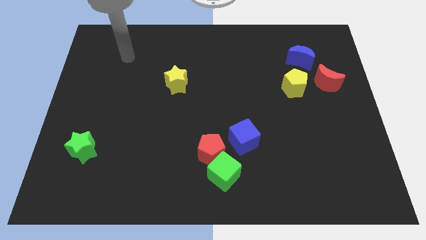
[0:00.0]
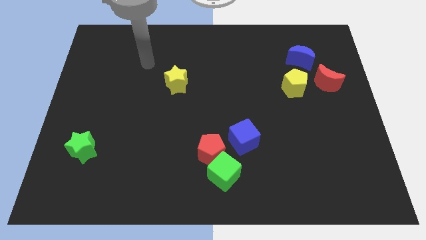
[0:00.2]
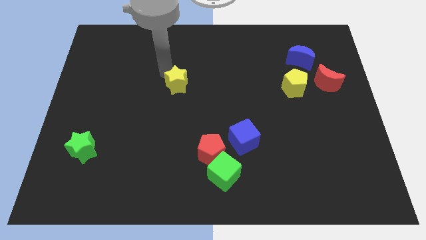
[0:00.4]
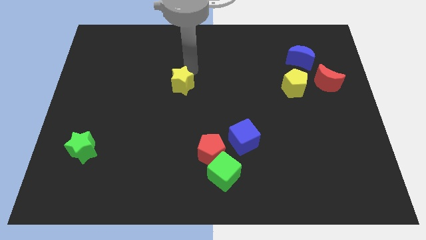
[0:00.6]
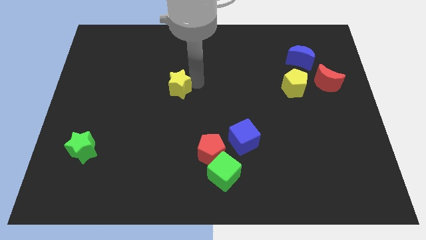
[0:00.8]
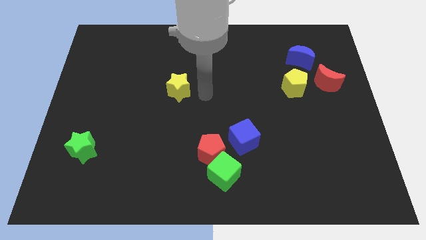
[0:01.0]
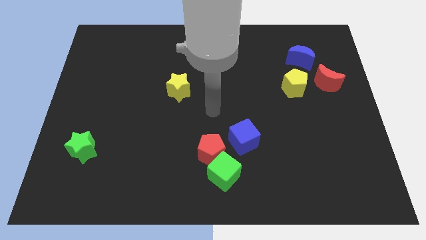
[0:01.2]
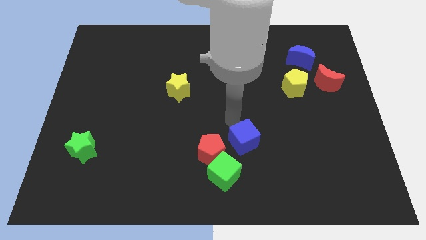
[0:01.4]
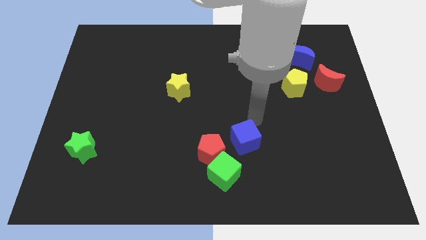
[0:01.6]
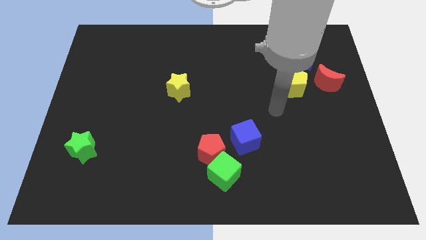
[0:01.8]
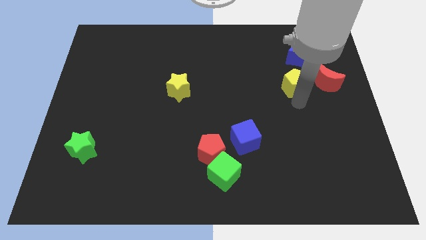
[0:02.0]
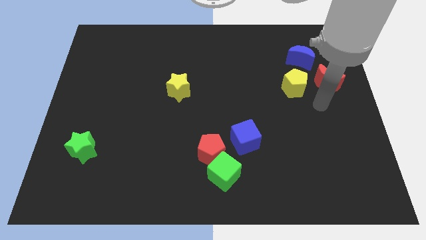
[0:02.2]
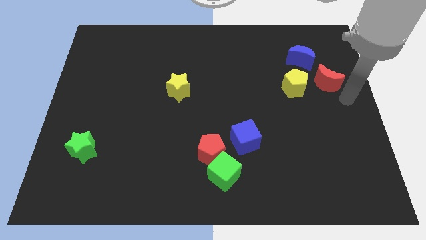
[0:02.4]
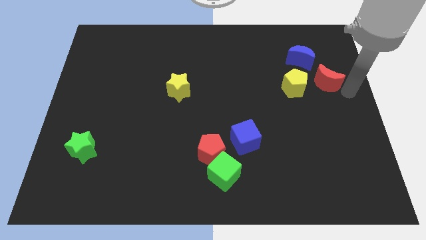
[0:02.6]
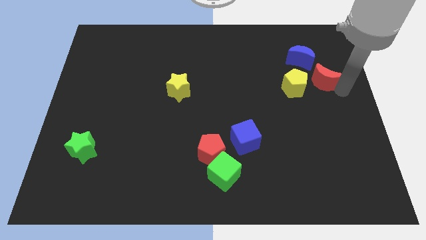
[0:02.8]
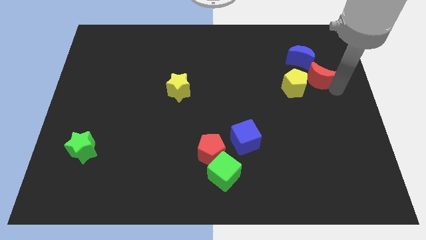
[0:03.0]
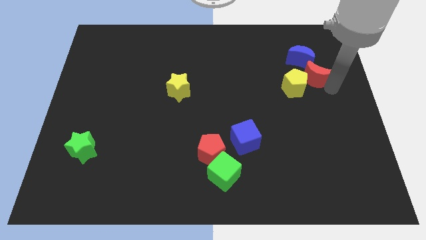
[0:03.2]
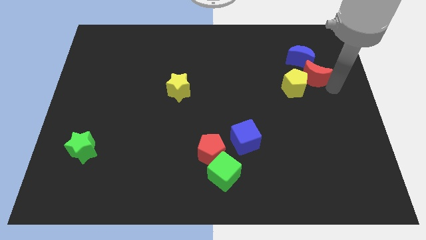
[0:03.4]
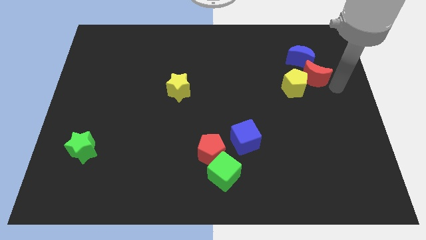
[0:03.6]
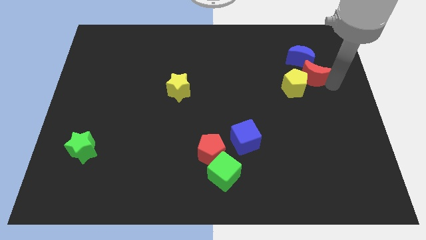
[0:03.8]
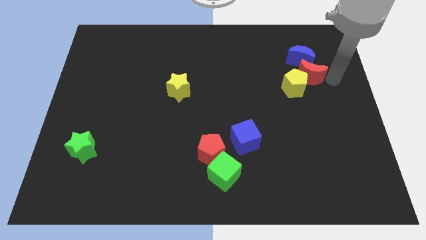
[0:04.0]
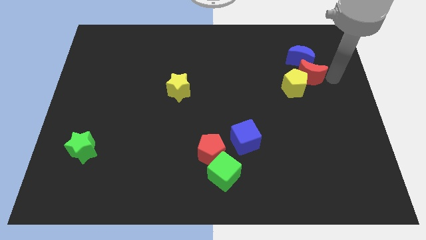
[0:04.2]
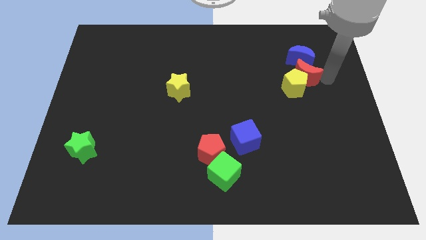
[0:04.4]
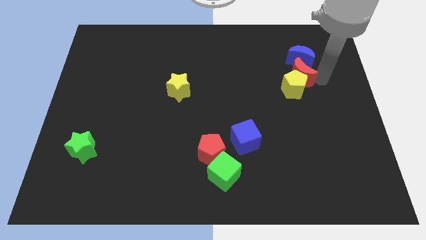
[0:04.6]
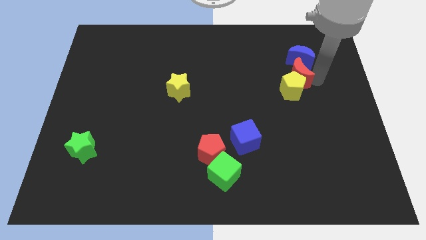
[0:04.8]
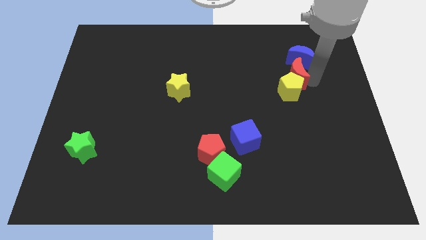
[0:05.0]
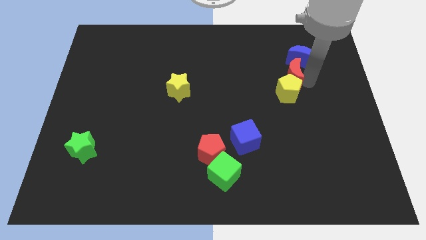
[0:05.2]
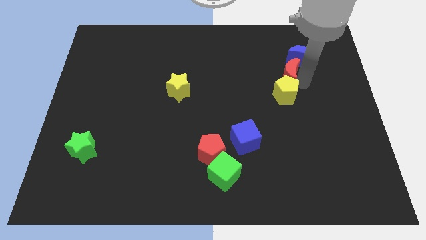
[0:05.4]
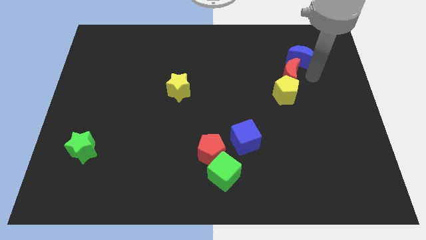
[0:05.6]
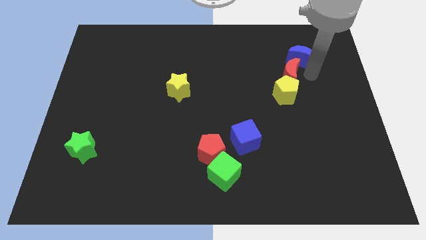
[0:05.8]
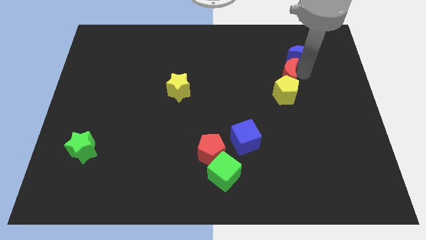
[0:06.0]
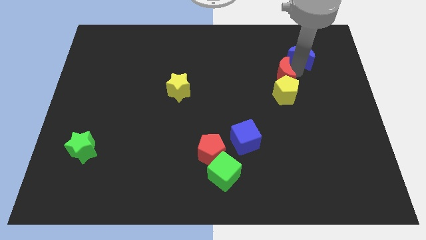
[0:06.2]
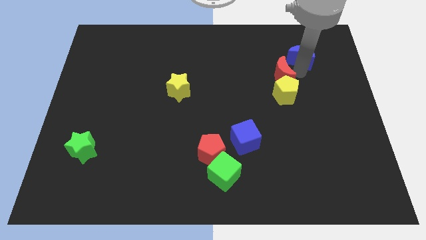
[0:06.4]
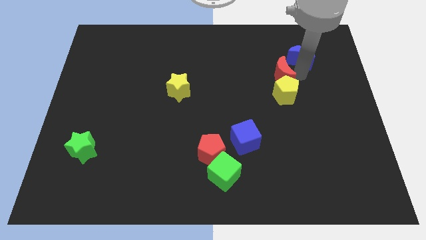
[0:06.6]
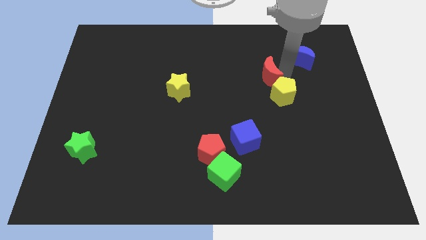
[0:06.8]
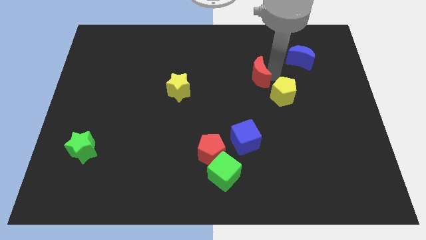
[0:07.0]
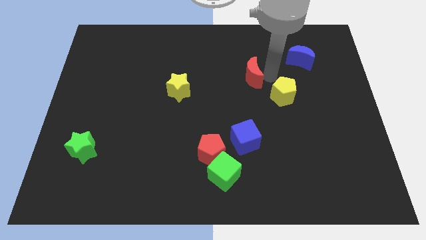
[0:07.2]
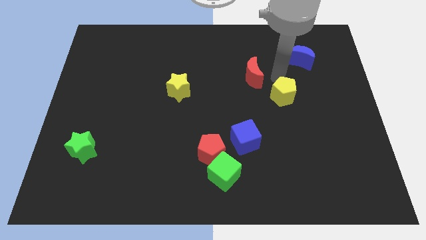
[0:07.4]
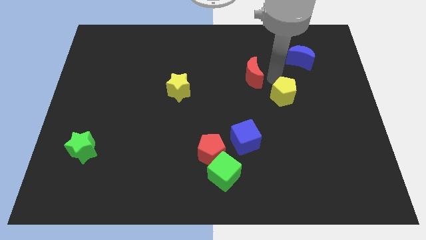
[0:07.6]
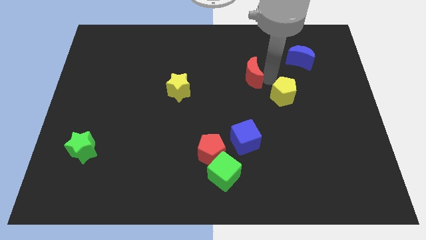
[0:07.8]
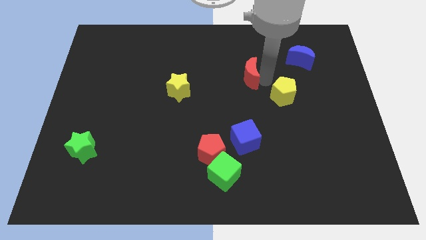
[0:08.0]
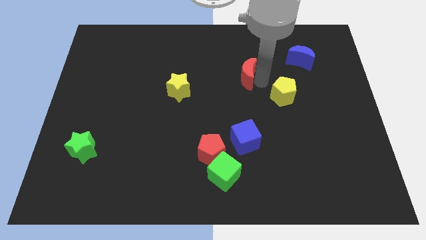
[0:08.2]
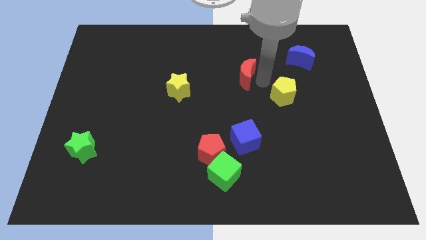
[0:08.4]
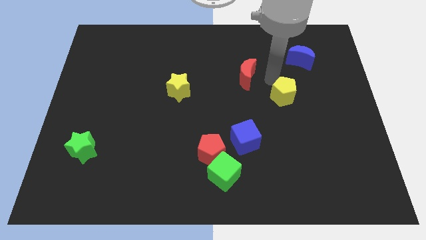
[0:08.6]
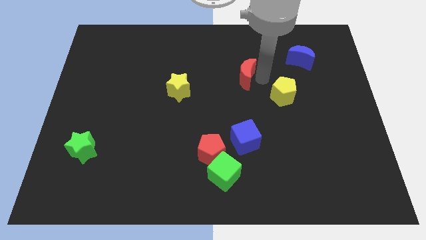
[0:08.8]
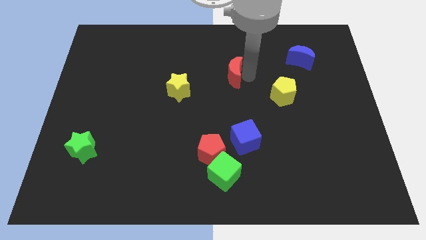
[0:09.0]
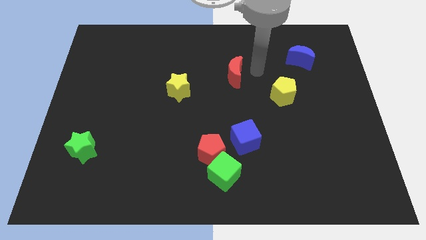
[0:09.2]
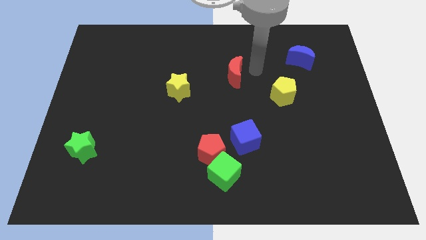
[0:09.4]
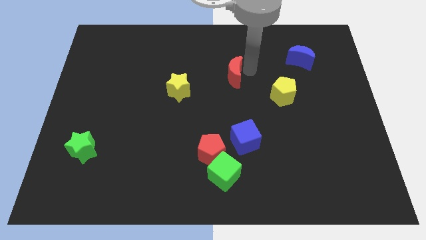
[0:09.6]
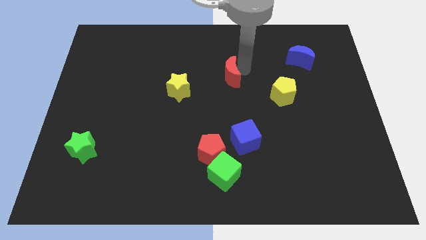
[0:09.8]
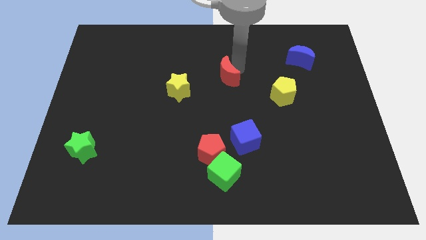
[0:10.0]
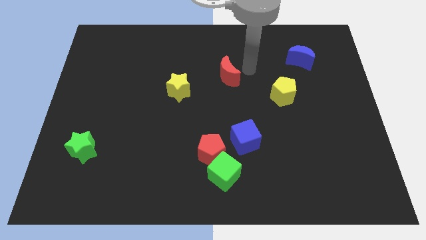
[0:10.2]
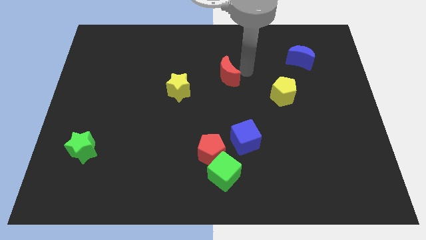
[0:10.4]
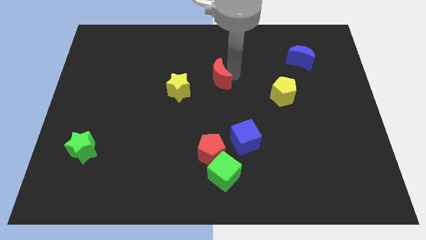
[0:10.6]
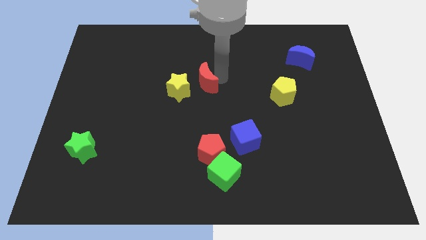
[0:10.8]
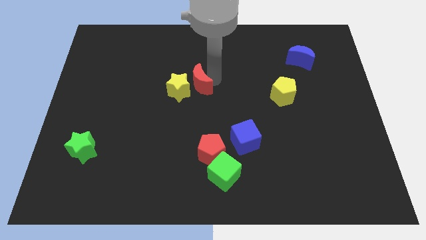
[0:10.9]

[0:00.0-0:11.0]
push the red moon close to the yellow star

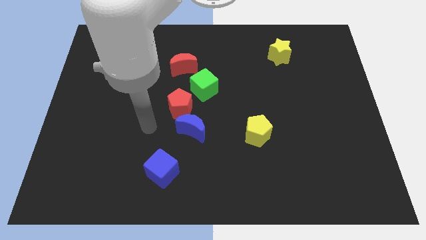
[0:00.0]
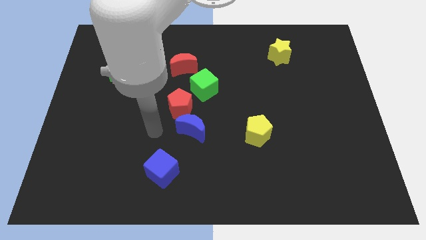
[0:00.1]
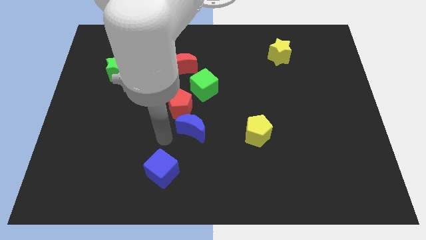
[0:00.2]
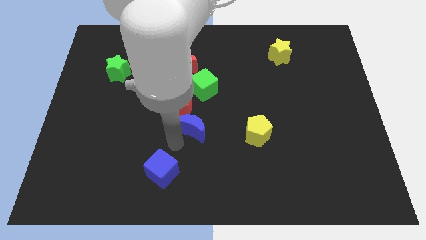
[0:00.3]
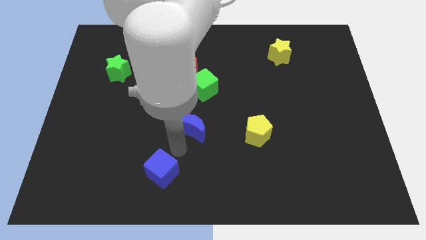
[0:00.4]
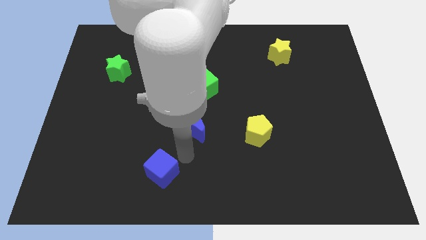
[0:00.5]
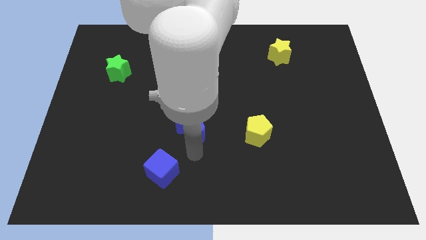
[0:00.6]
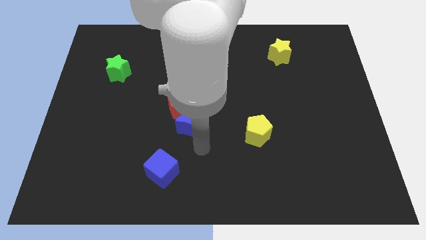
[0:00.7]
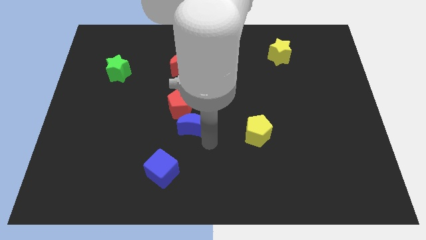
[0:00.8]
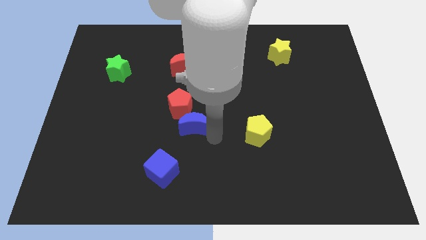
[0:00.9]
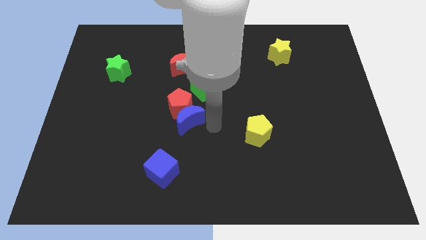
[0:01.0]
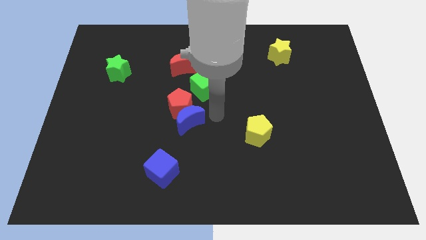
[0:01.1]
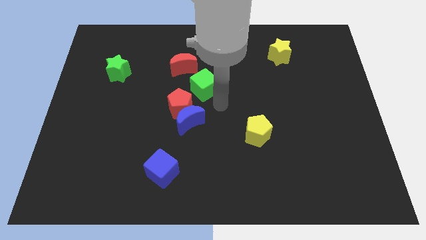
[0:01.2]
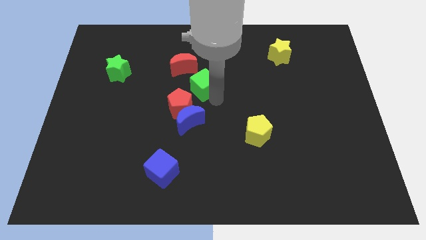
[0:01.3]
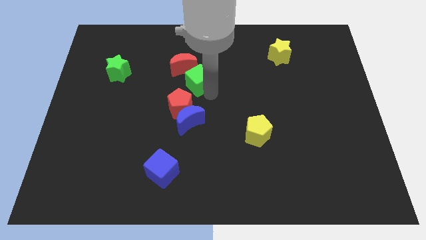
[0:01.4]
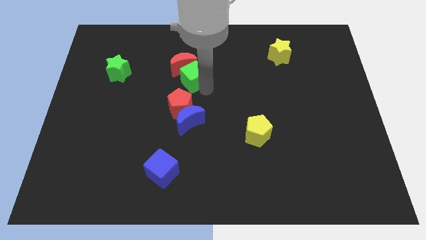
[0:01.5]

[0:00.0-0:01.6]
slide the green cube next to the red moon

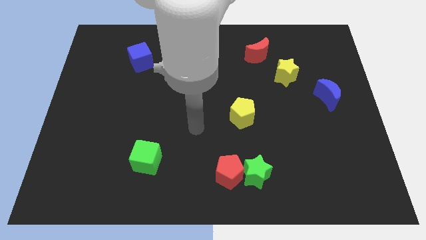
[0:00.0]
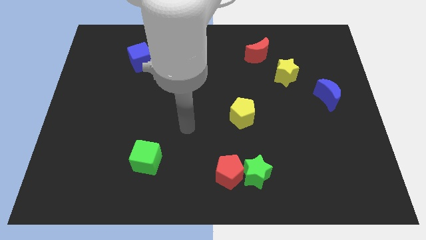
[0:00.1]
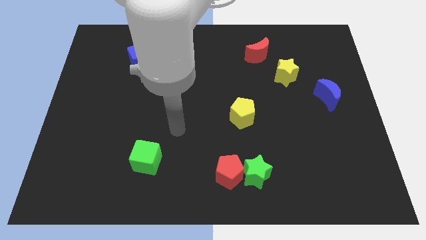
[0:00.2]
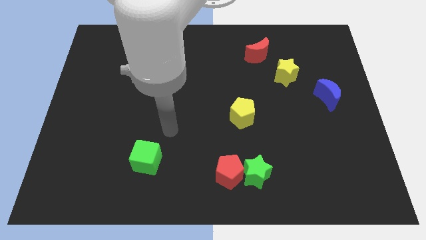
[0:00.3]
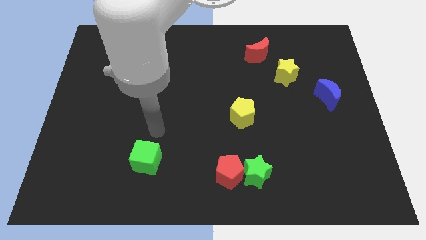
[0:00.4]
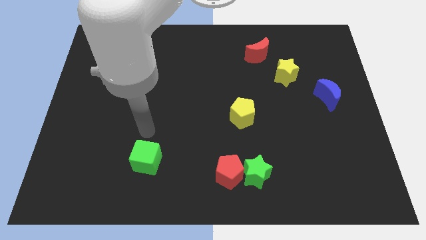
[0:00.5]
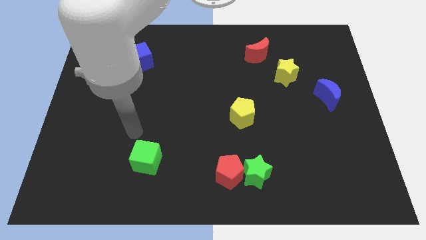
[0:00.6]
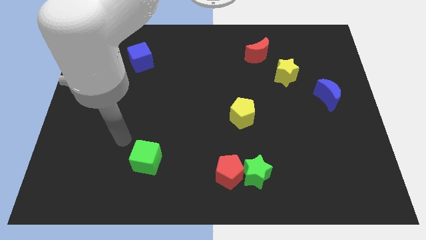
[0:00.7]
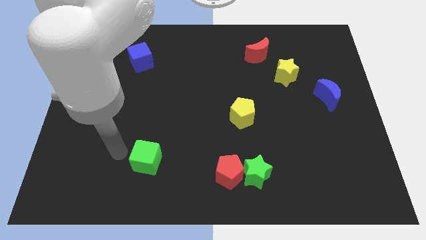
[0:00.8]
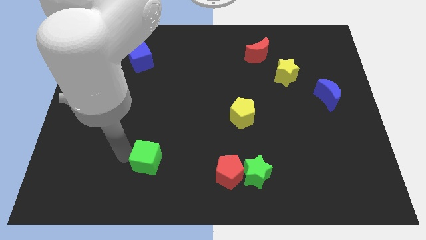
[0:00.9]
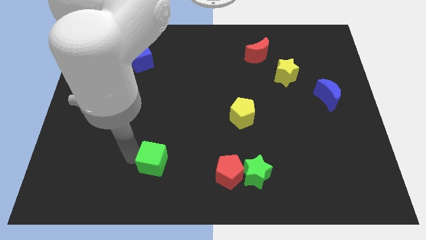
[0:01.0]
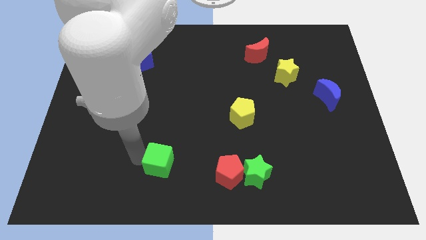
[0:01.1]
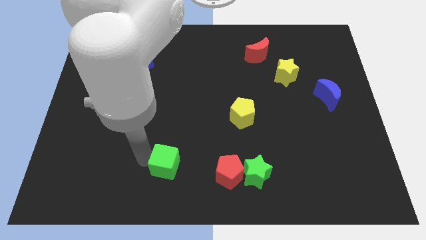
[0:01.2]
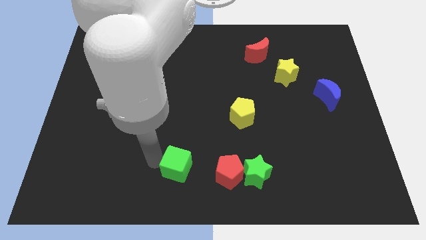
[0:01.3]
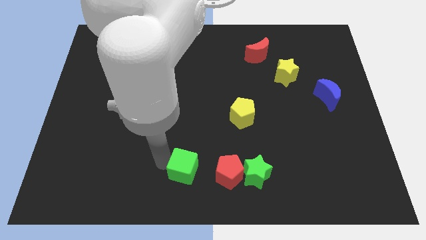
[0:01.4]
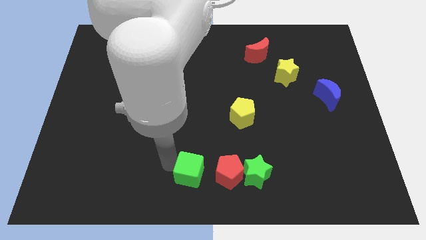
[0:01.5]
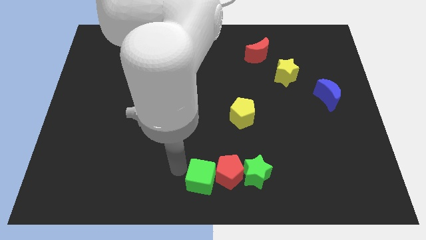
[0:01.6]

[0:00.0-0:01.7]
put the green cube next to the red pentagon
